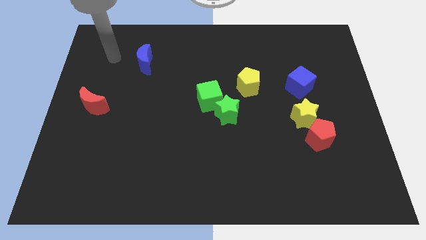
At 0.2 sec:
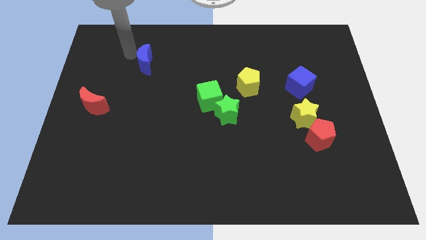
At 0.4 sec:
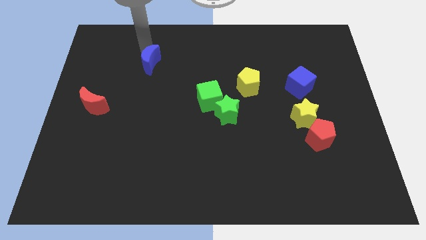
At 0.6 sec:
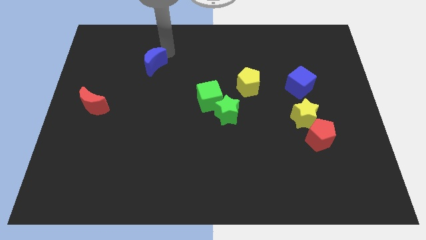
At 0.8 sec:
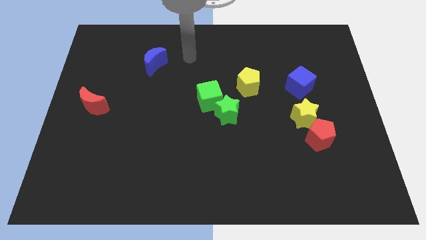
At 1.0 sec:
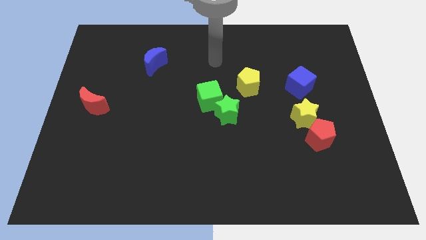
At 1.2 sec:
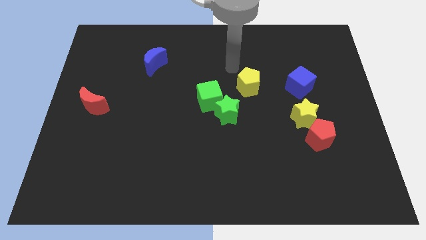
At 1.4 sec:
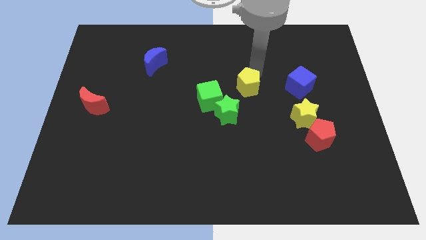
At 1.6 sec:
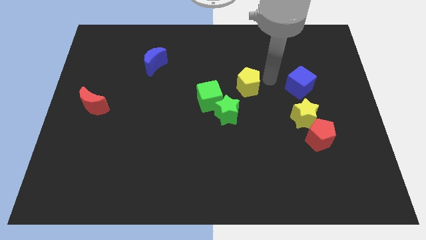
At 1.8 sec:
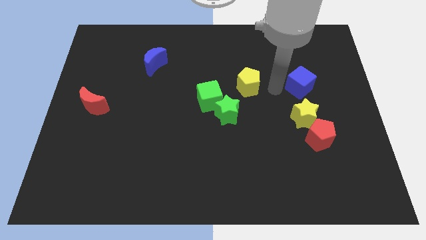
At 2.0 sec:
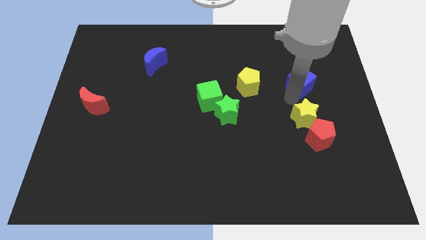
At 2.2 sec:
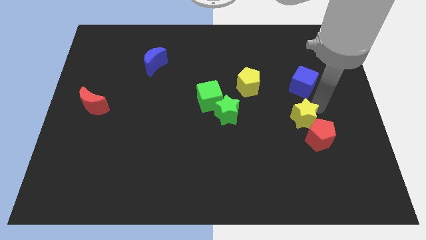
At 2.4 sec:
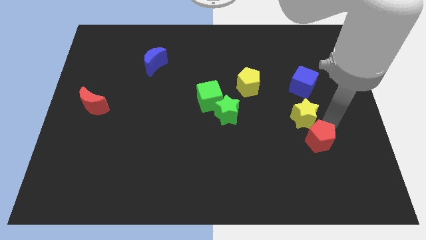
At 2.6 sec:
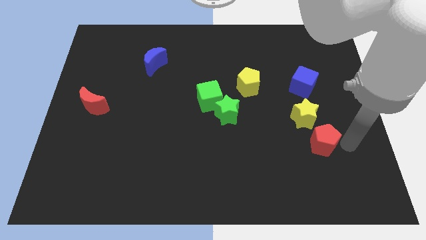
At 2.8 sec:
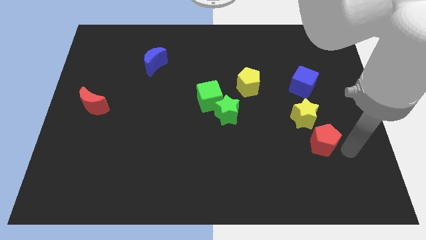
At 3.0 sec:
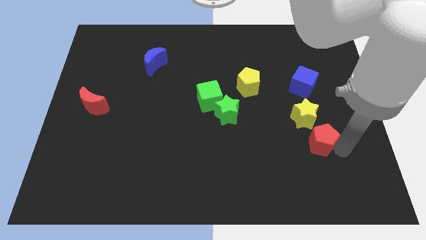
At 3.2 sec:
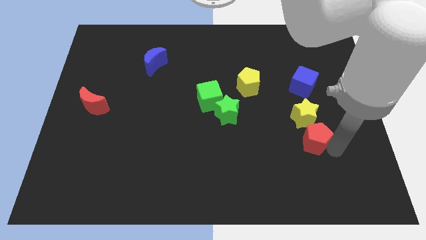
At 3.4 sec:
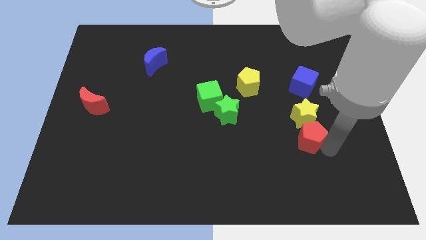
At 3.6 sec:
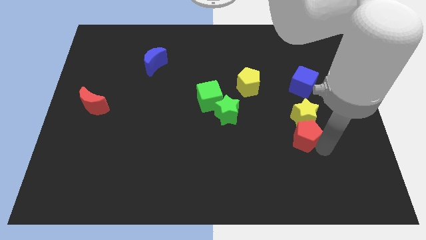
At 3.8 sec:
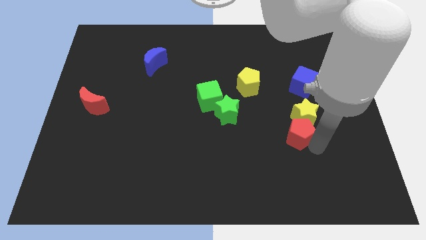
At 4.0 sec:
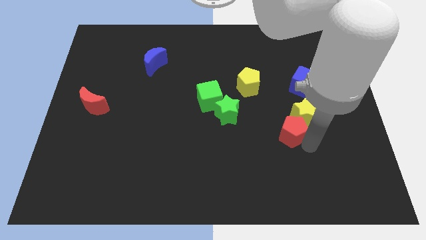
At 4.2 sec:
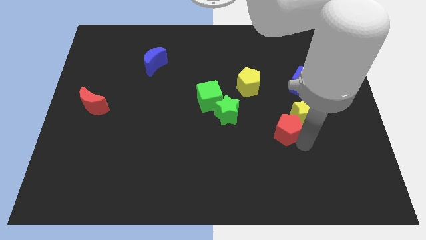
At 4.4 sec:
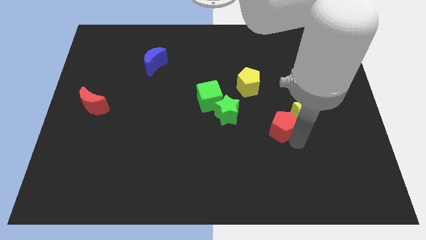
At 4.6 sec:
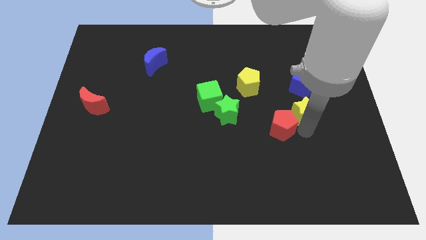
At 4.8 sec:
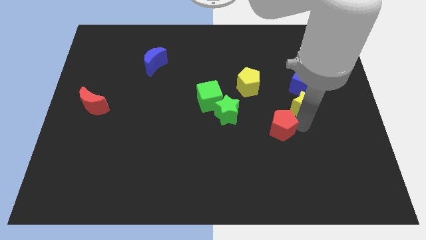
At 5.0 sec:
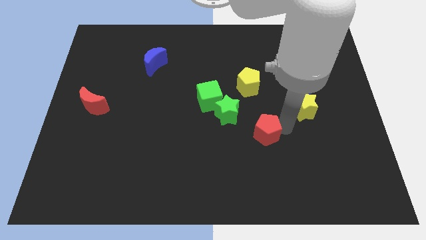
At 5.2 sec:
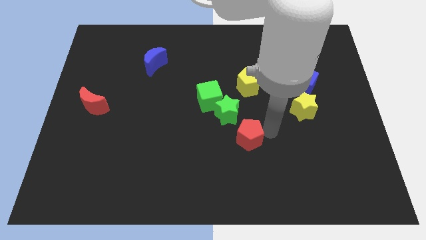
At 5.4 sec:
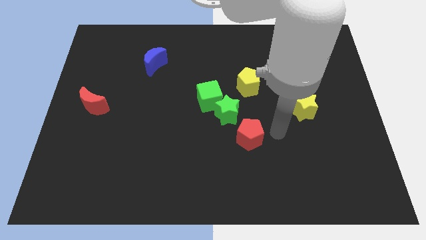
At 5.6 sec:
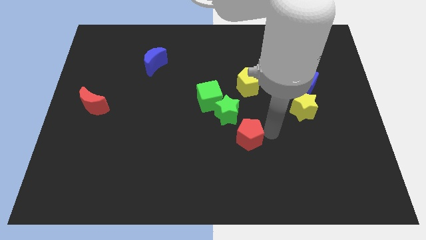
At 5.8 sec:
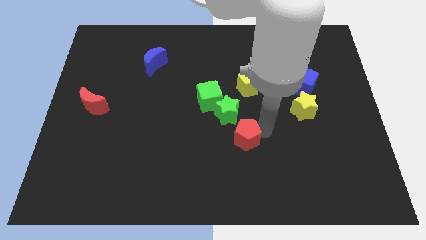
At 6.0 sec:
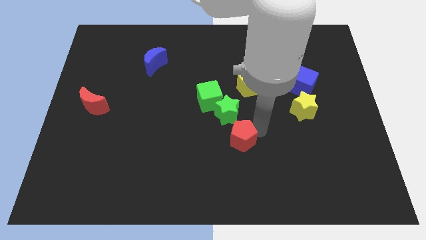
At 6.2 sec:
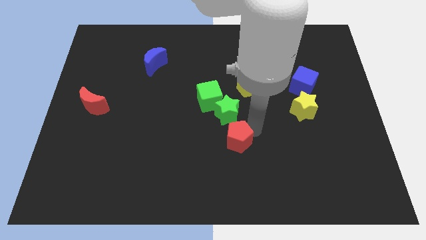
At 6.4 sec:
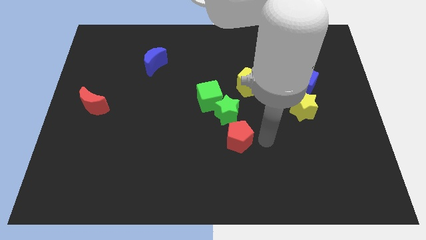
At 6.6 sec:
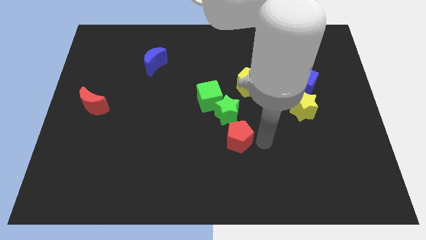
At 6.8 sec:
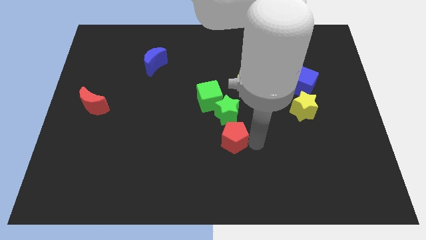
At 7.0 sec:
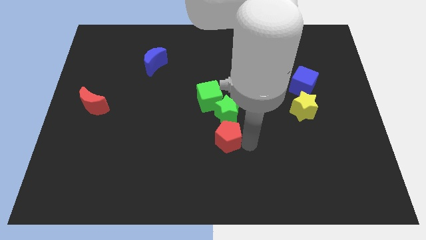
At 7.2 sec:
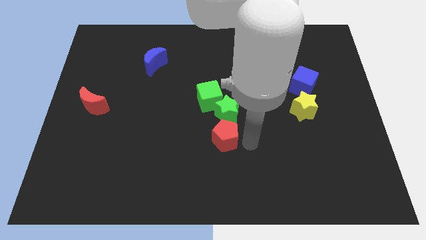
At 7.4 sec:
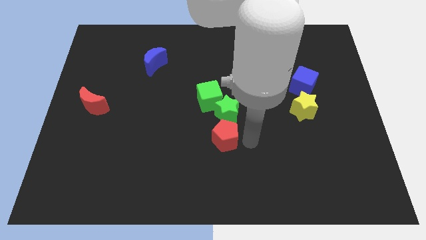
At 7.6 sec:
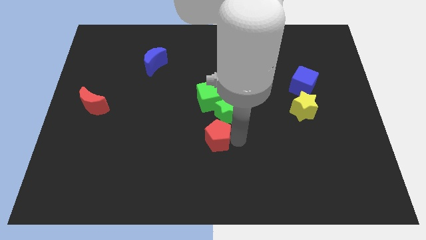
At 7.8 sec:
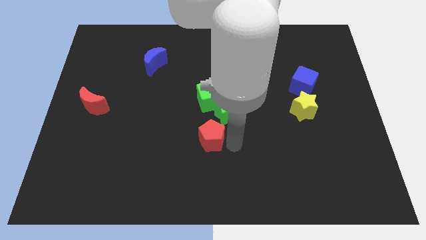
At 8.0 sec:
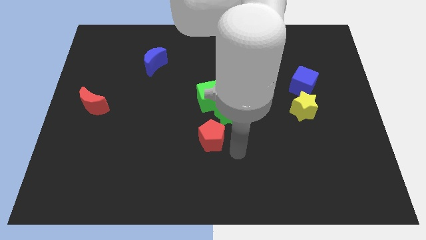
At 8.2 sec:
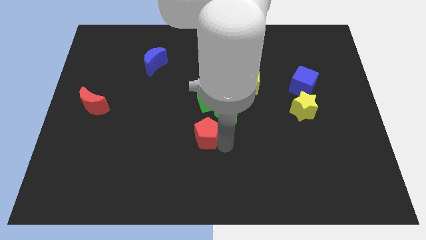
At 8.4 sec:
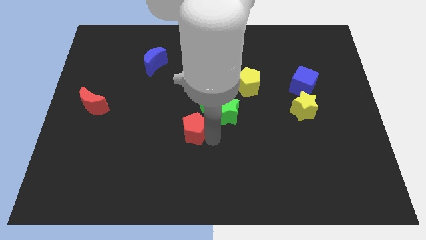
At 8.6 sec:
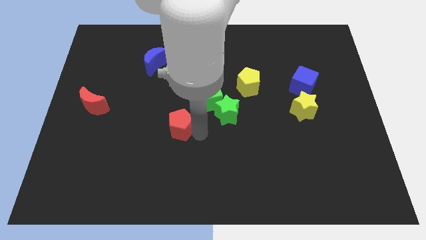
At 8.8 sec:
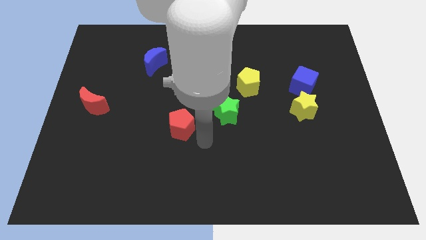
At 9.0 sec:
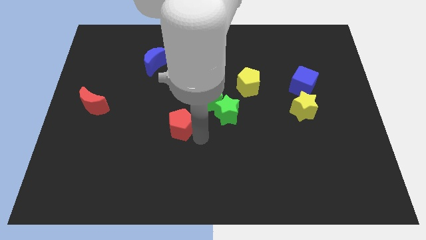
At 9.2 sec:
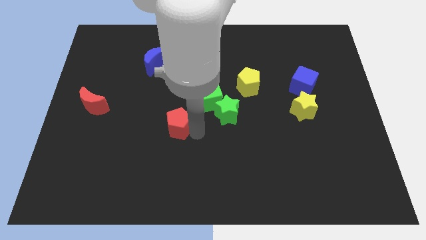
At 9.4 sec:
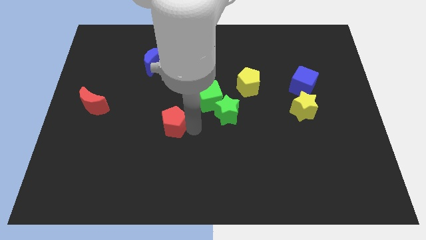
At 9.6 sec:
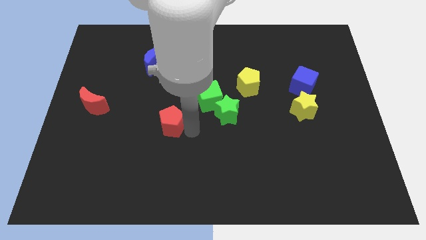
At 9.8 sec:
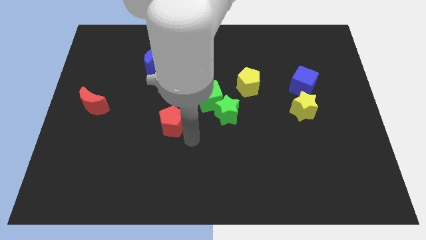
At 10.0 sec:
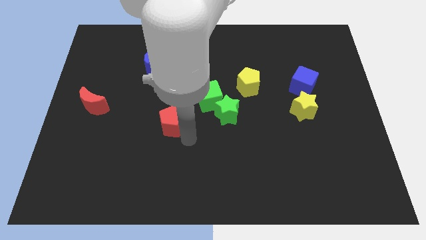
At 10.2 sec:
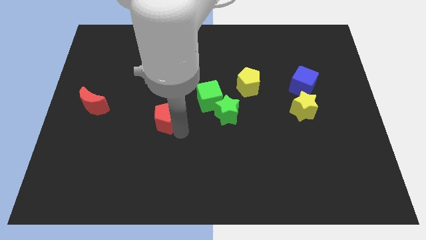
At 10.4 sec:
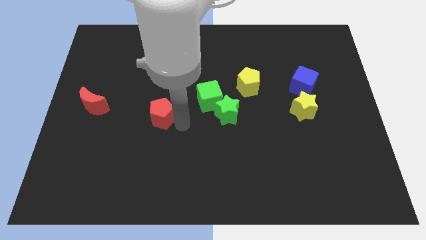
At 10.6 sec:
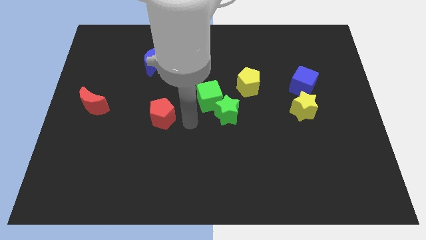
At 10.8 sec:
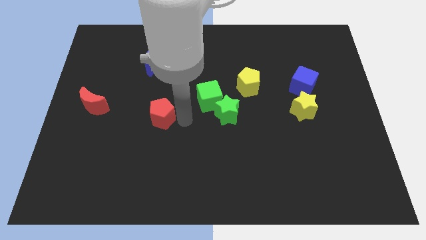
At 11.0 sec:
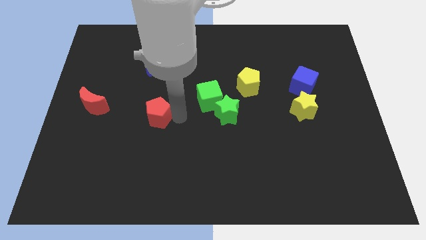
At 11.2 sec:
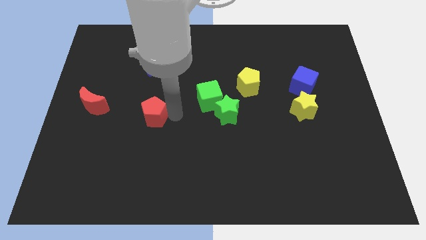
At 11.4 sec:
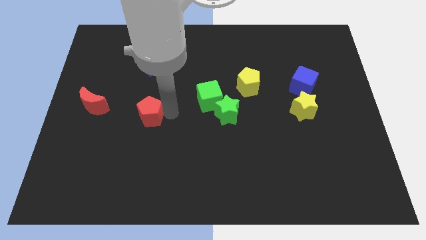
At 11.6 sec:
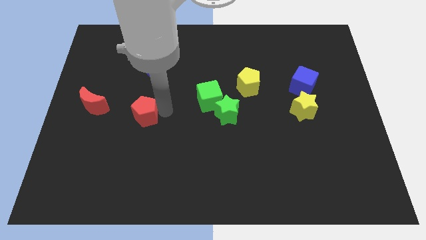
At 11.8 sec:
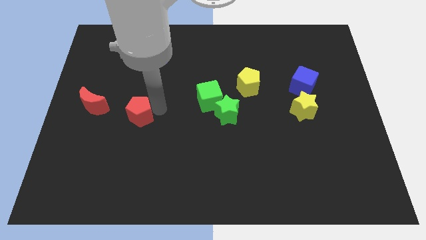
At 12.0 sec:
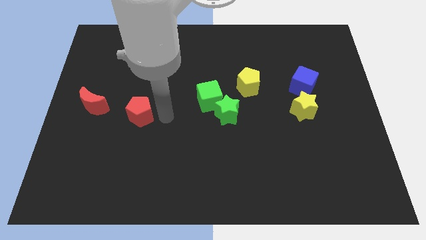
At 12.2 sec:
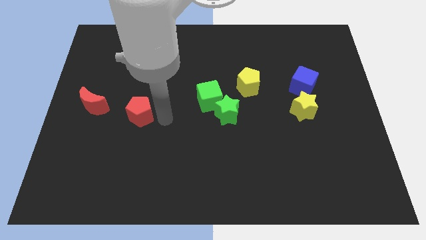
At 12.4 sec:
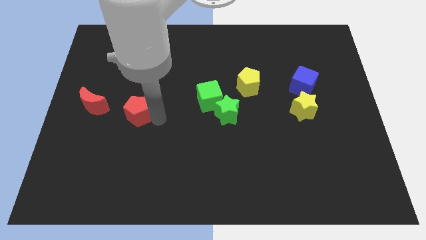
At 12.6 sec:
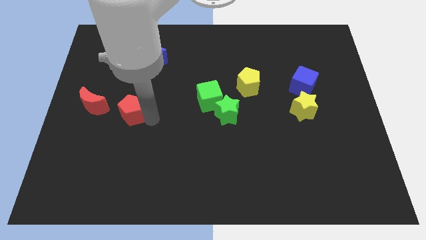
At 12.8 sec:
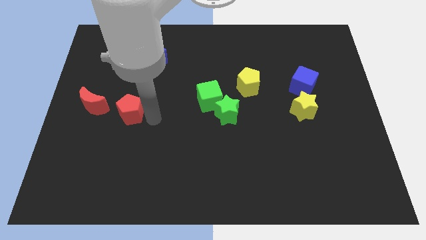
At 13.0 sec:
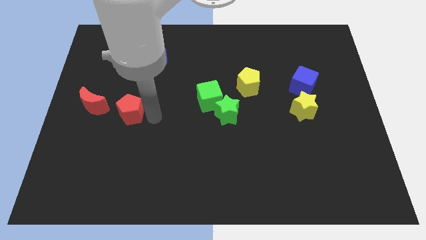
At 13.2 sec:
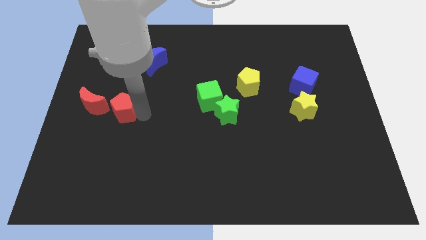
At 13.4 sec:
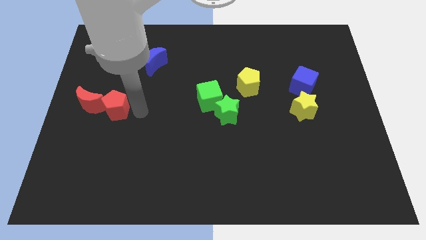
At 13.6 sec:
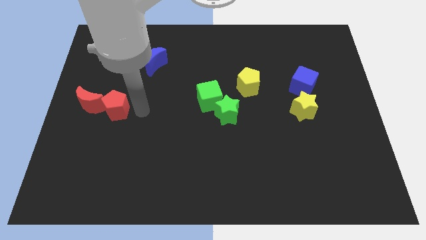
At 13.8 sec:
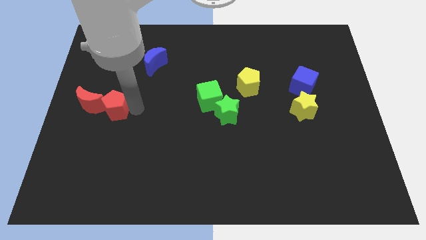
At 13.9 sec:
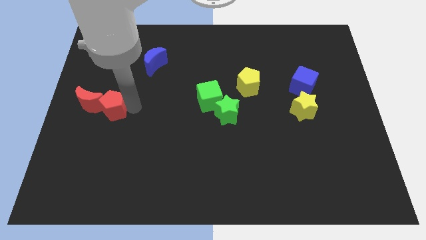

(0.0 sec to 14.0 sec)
slide the red pentagon close to the red moon

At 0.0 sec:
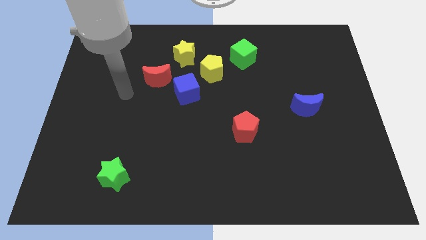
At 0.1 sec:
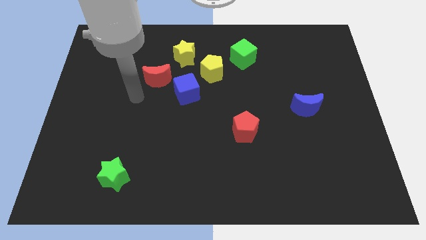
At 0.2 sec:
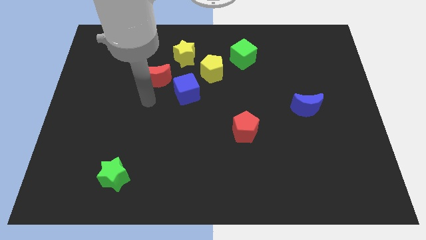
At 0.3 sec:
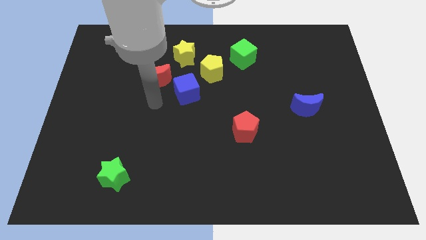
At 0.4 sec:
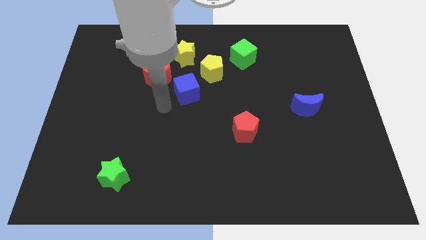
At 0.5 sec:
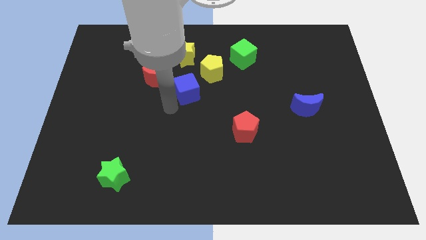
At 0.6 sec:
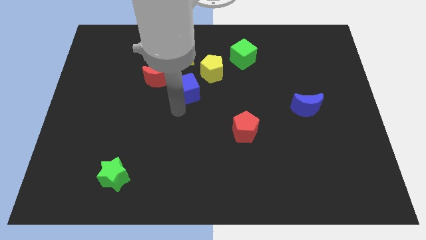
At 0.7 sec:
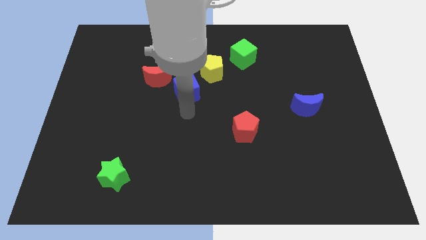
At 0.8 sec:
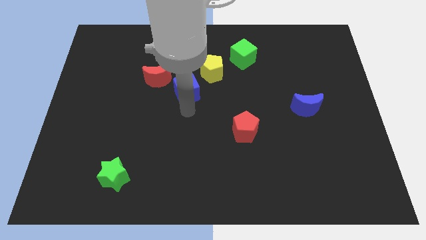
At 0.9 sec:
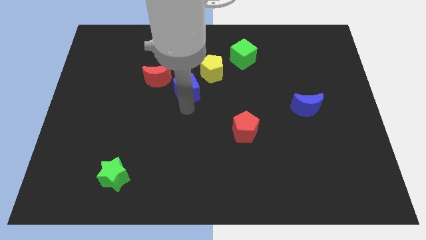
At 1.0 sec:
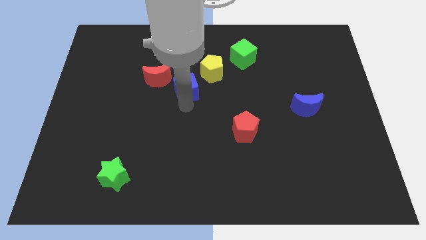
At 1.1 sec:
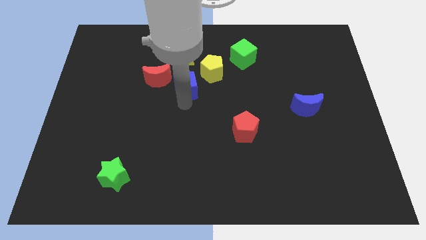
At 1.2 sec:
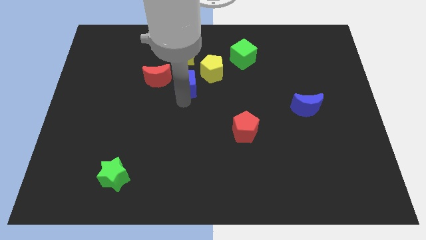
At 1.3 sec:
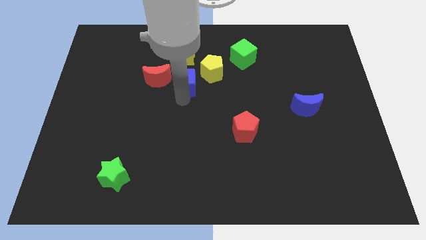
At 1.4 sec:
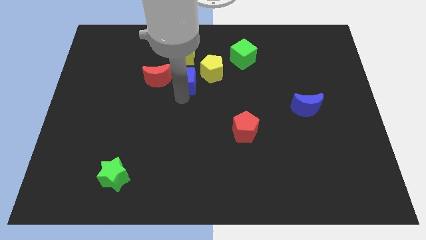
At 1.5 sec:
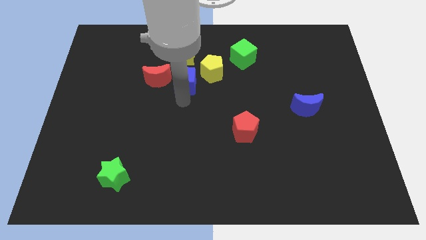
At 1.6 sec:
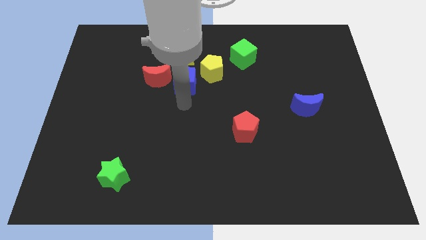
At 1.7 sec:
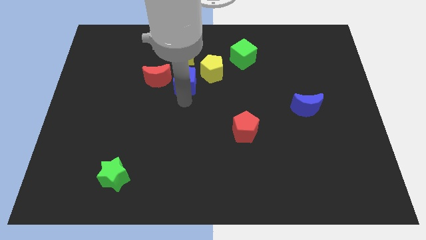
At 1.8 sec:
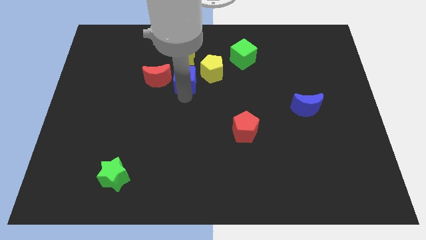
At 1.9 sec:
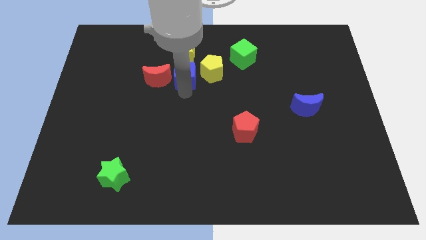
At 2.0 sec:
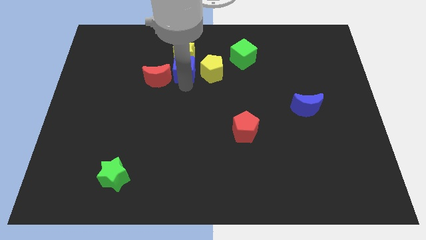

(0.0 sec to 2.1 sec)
slide the blue cube close to the yellow star
